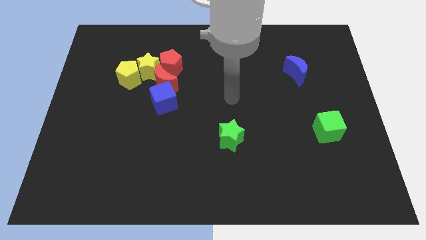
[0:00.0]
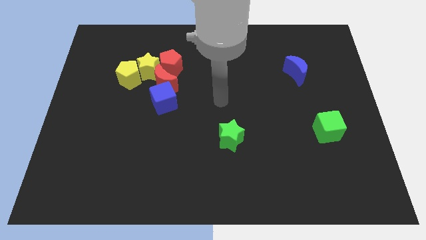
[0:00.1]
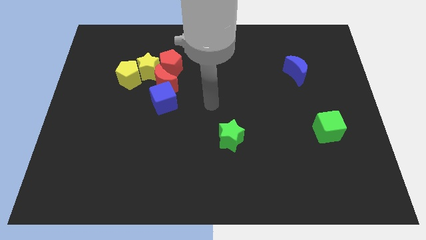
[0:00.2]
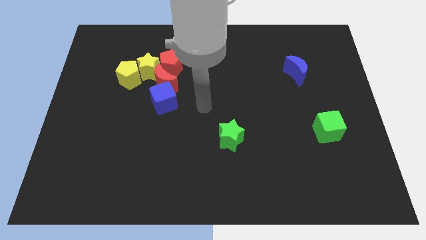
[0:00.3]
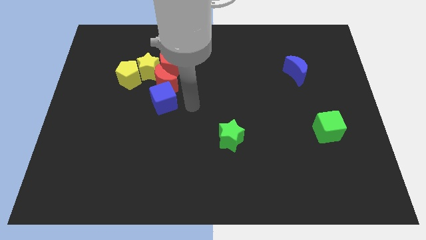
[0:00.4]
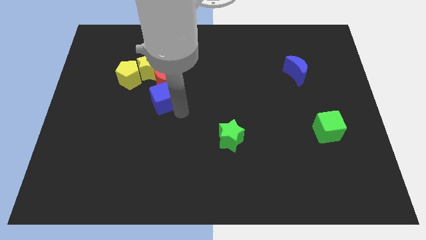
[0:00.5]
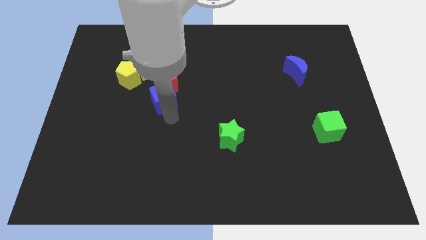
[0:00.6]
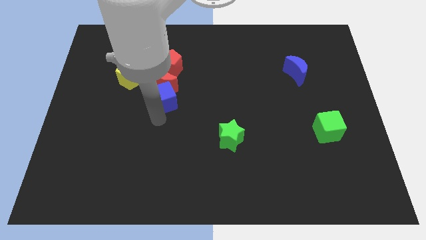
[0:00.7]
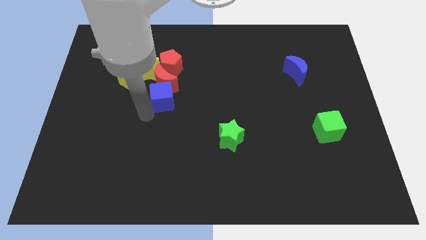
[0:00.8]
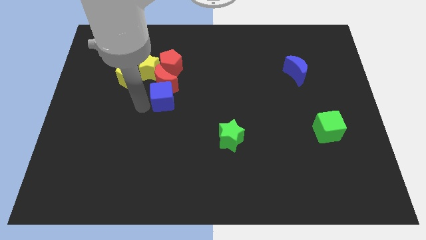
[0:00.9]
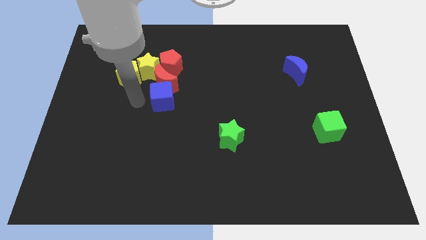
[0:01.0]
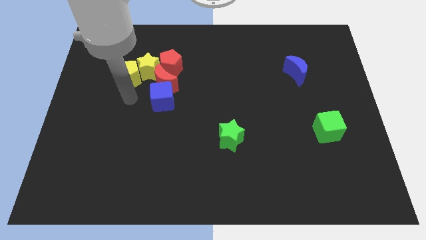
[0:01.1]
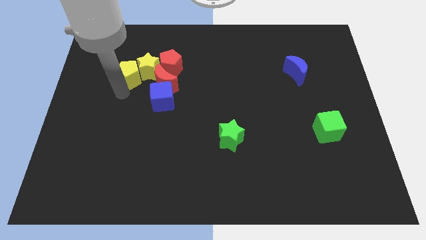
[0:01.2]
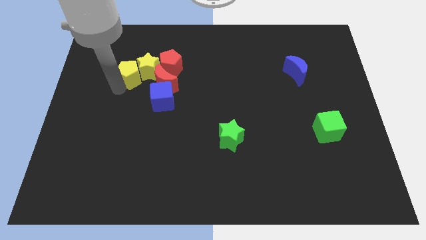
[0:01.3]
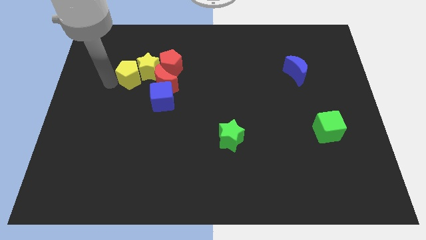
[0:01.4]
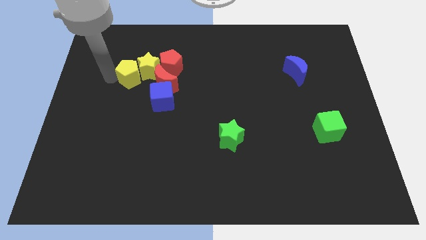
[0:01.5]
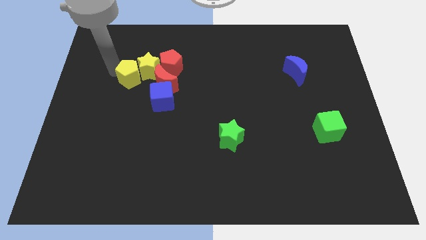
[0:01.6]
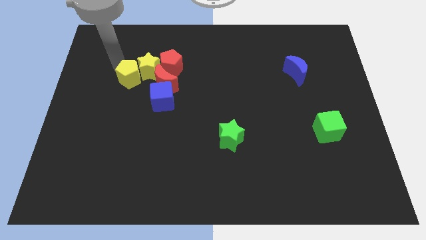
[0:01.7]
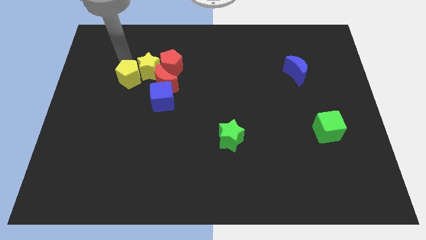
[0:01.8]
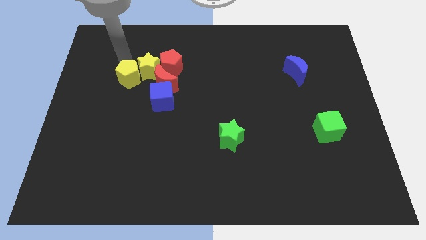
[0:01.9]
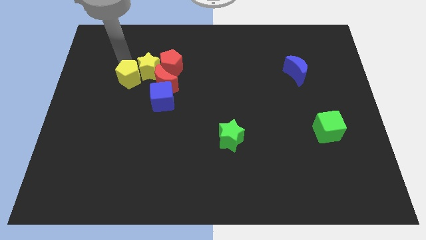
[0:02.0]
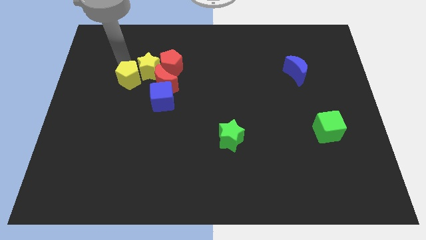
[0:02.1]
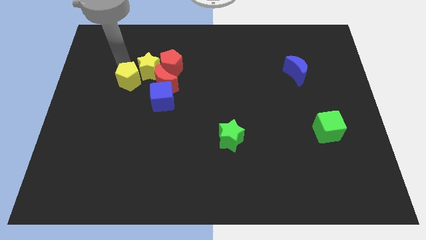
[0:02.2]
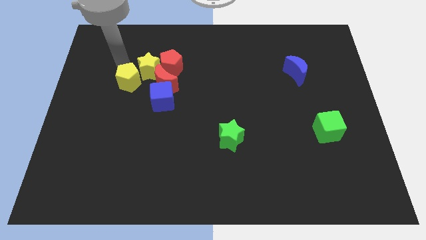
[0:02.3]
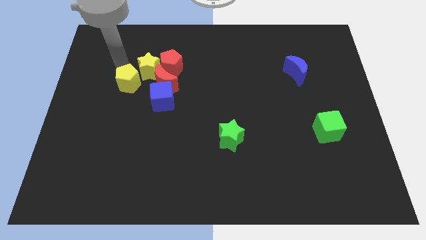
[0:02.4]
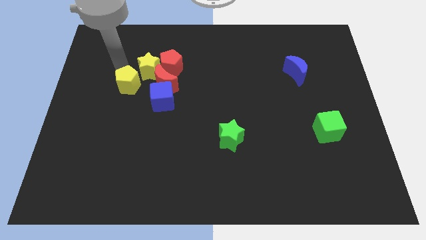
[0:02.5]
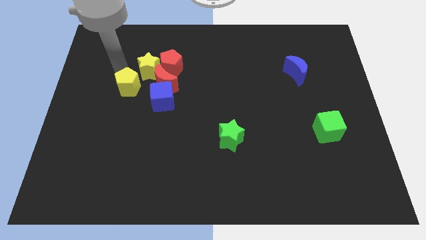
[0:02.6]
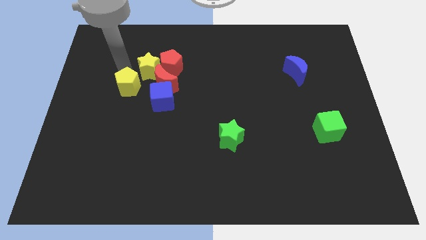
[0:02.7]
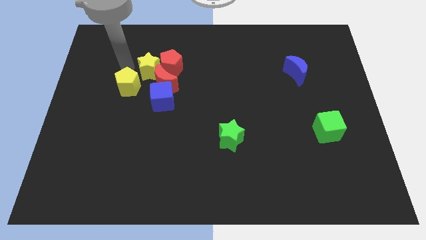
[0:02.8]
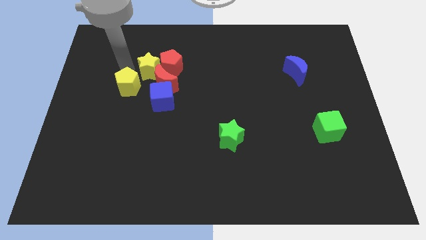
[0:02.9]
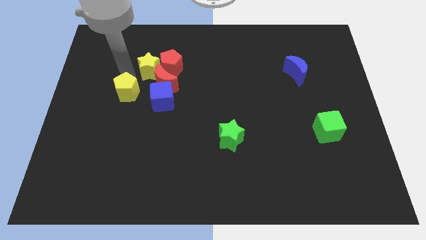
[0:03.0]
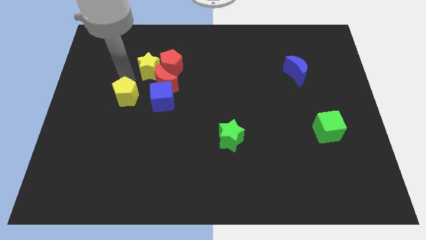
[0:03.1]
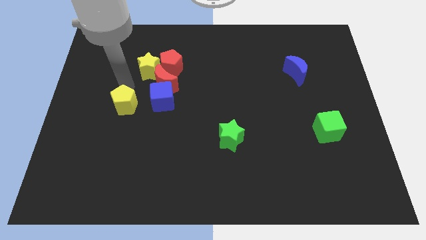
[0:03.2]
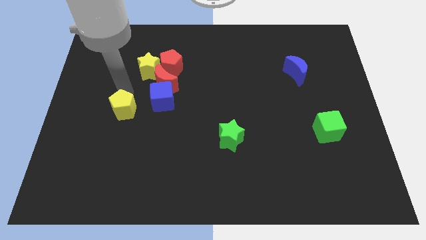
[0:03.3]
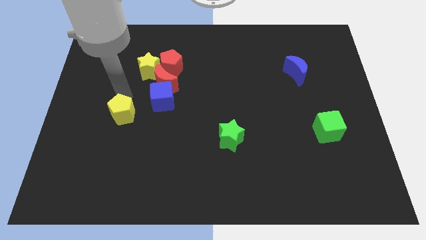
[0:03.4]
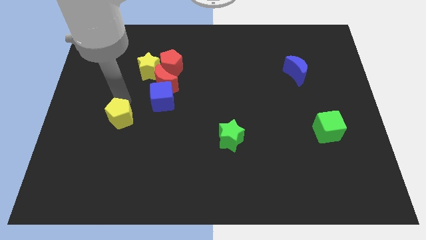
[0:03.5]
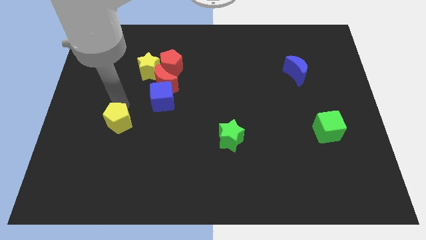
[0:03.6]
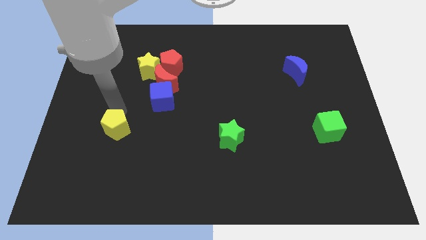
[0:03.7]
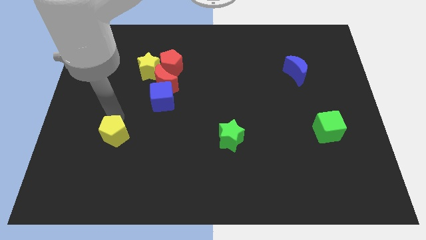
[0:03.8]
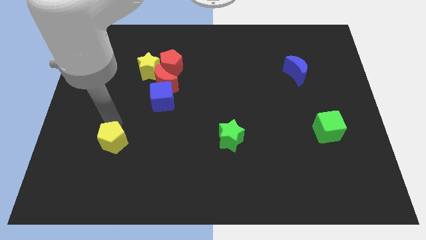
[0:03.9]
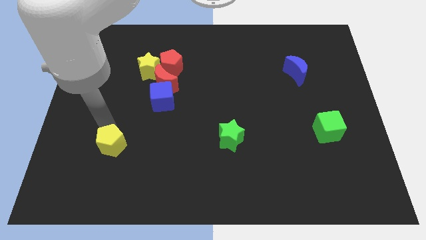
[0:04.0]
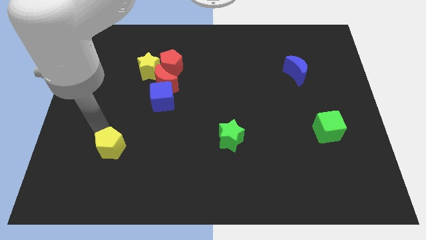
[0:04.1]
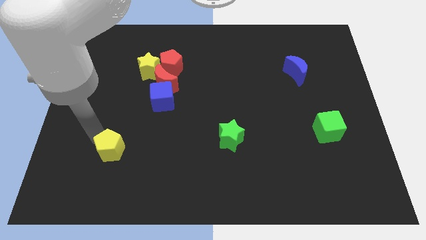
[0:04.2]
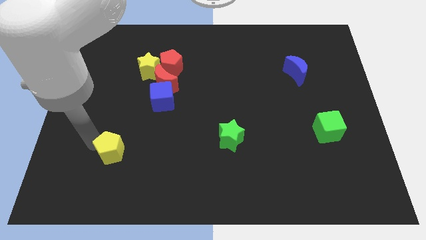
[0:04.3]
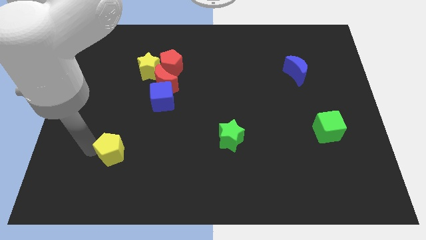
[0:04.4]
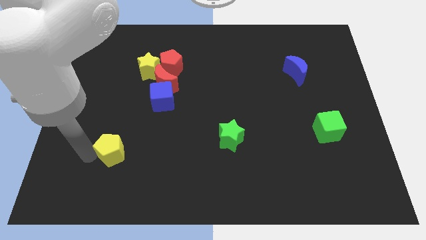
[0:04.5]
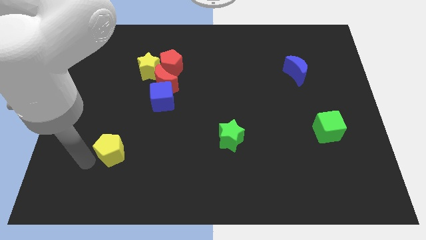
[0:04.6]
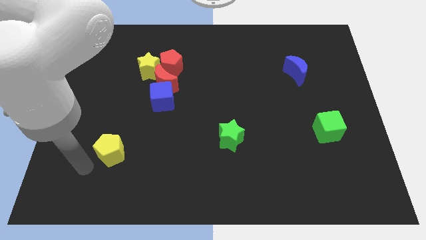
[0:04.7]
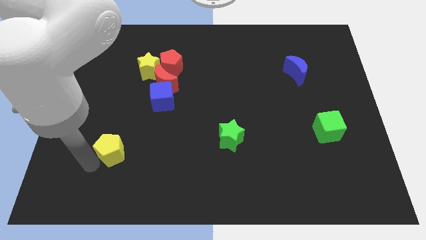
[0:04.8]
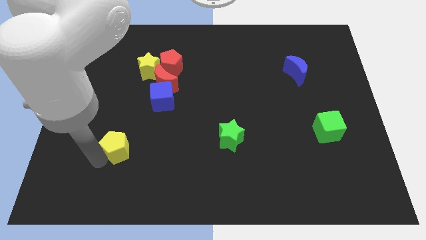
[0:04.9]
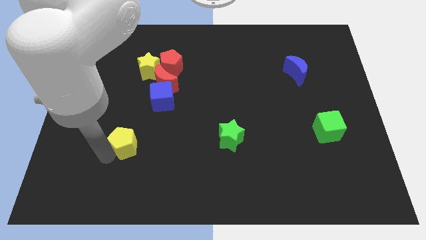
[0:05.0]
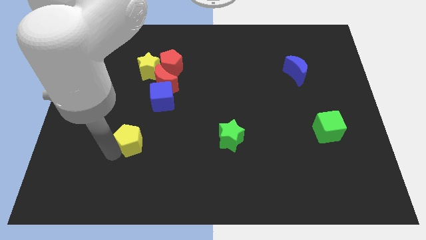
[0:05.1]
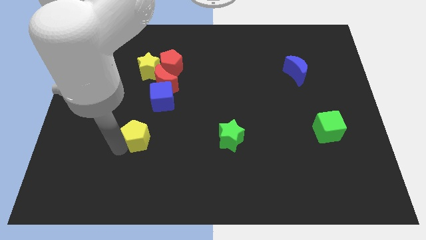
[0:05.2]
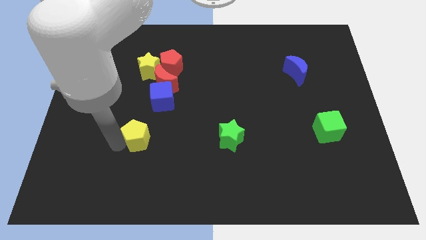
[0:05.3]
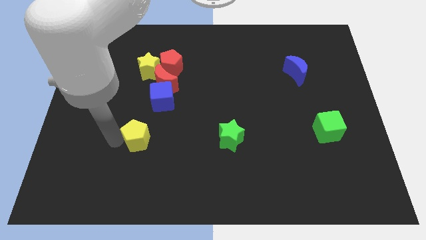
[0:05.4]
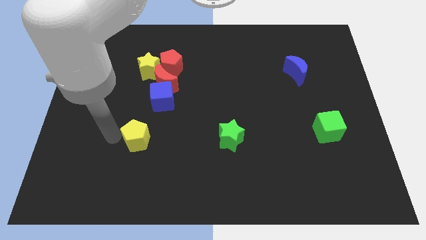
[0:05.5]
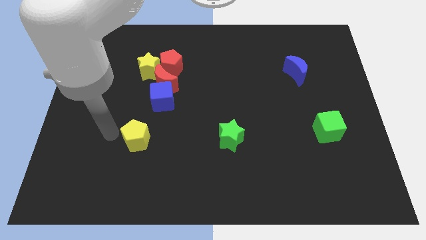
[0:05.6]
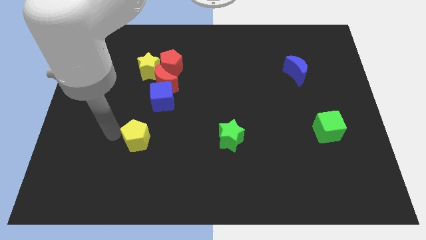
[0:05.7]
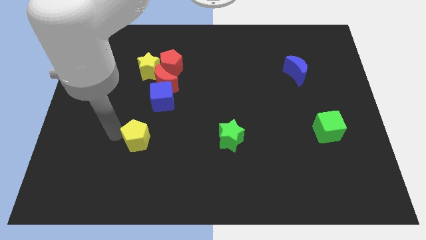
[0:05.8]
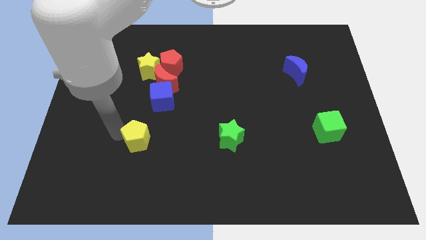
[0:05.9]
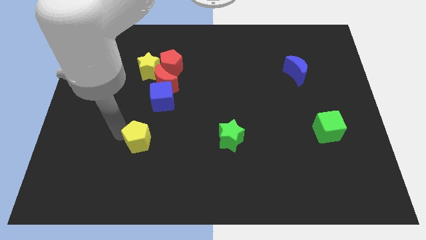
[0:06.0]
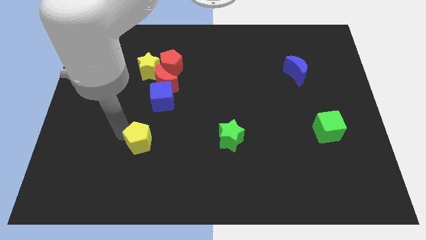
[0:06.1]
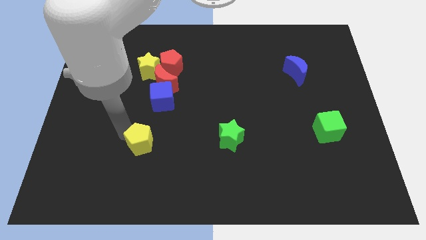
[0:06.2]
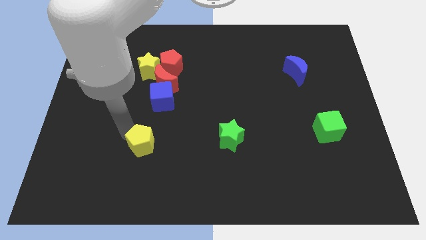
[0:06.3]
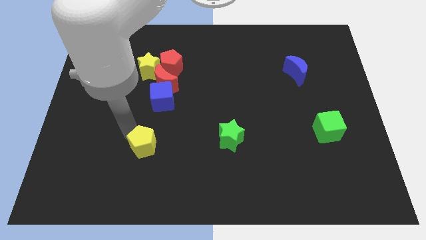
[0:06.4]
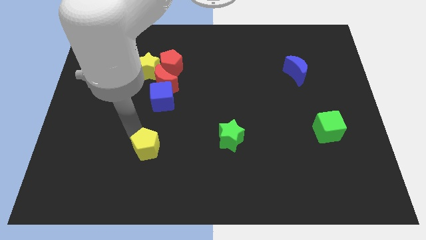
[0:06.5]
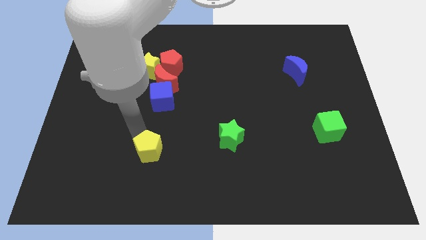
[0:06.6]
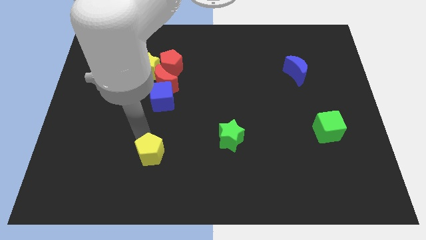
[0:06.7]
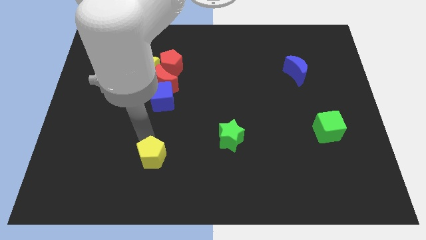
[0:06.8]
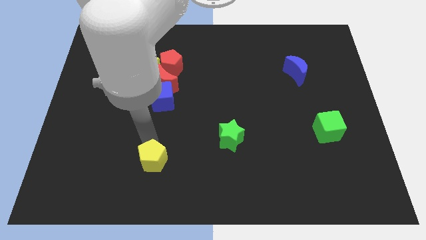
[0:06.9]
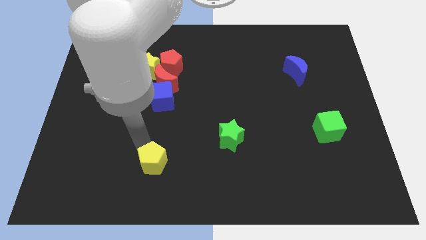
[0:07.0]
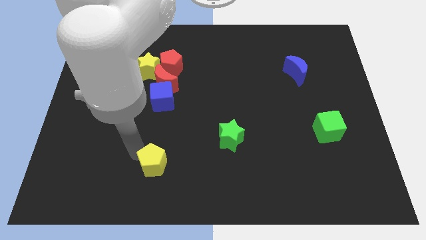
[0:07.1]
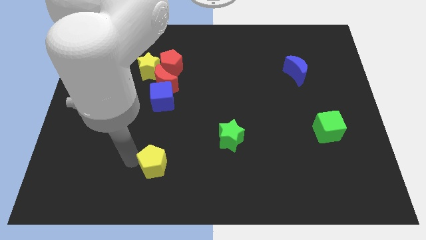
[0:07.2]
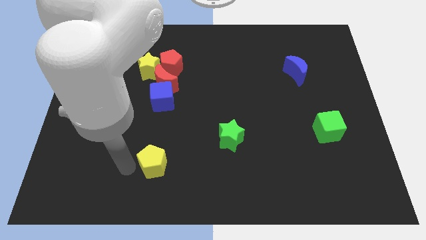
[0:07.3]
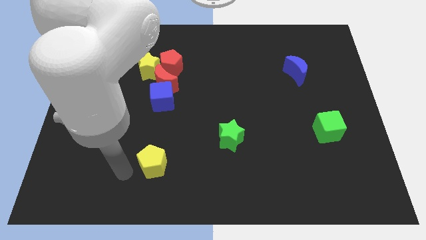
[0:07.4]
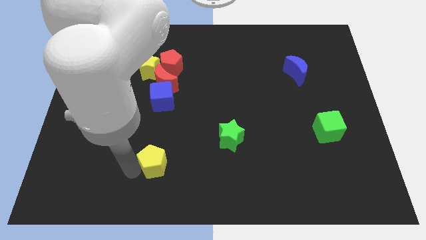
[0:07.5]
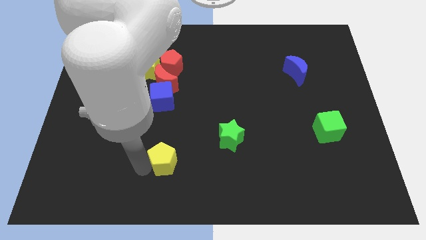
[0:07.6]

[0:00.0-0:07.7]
push the yellow pentagon downwards and to the right
